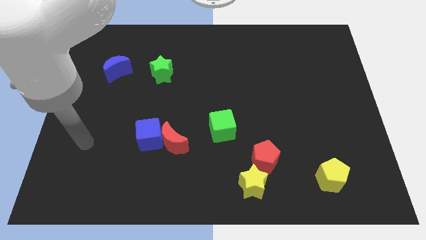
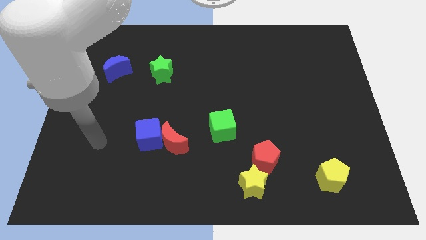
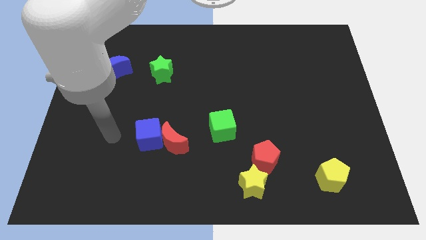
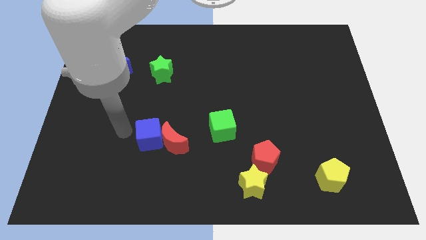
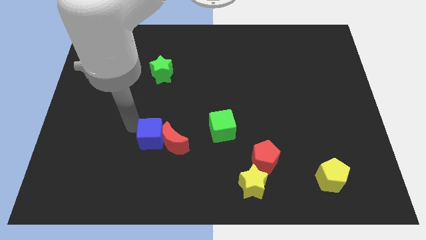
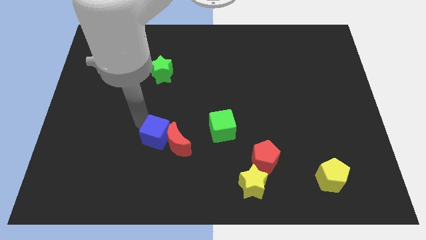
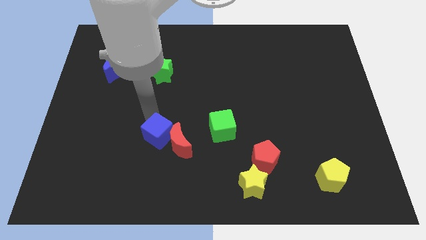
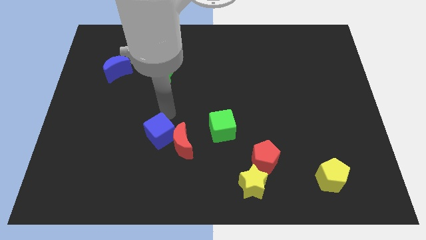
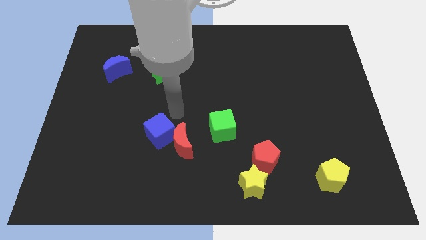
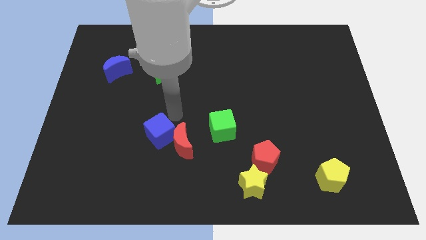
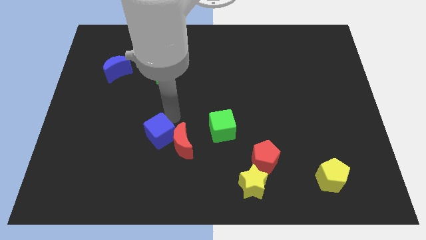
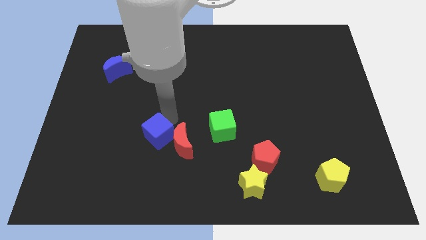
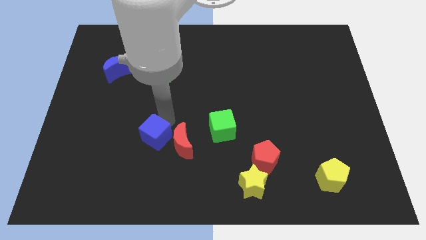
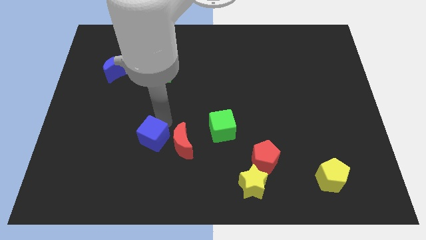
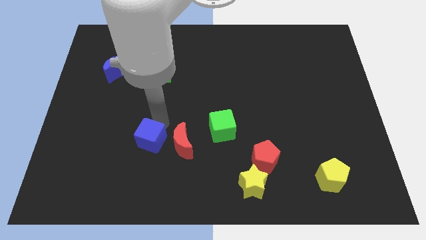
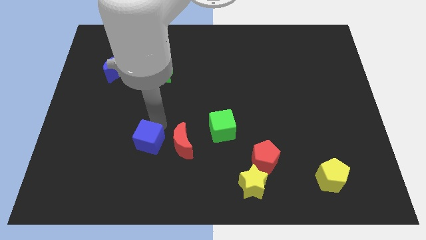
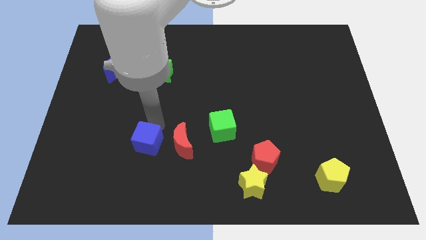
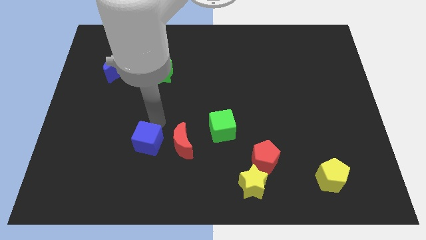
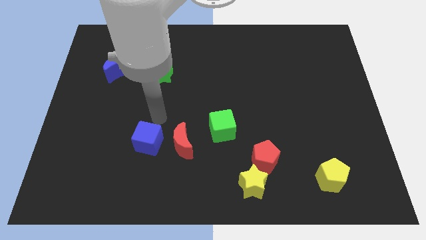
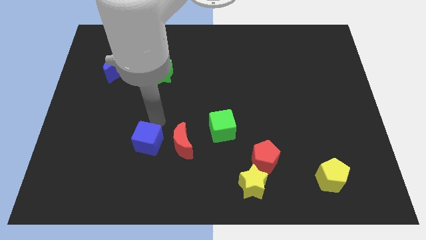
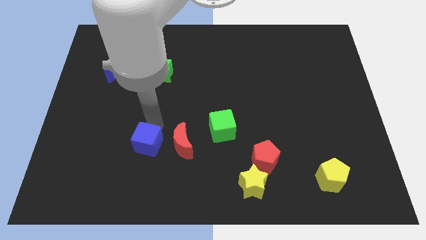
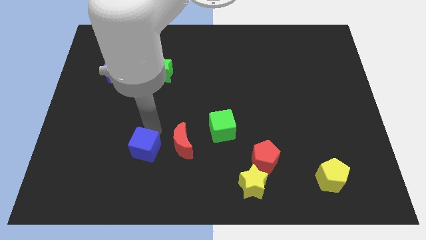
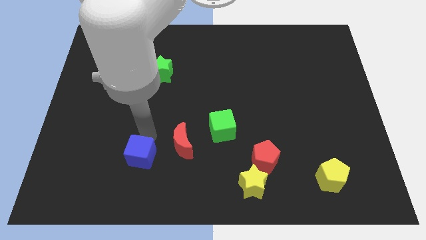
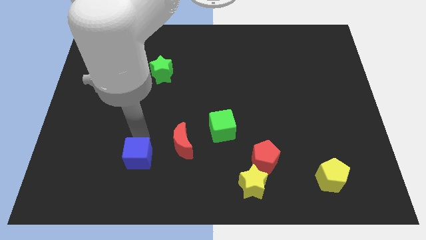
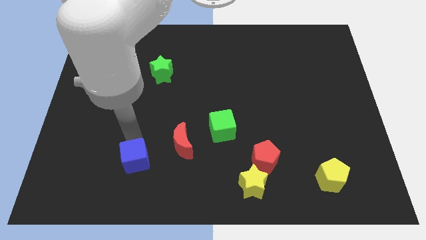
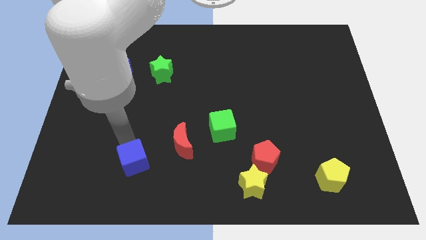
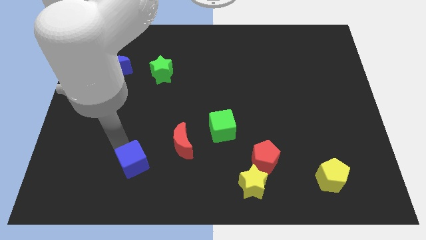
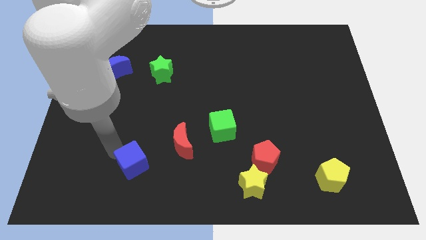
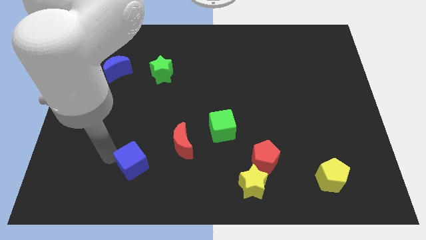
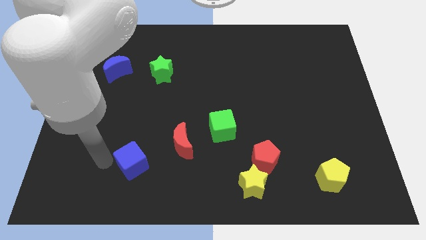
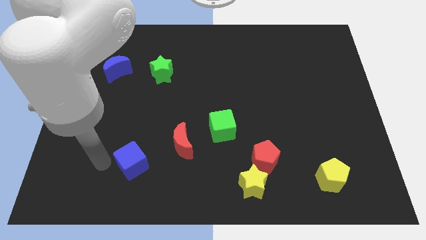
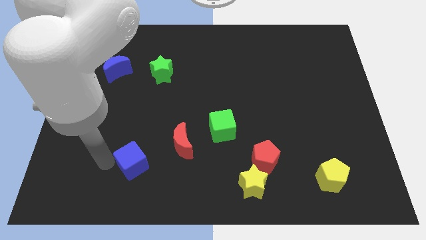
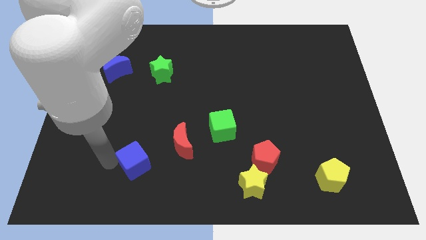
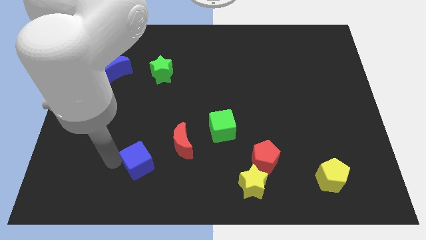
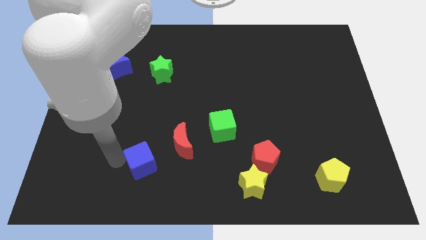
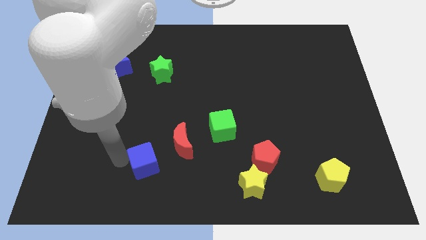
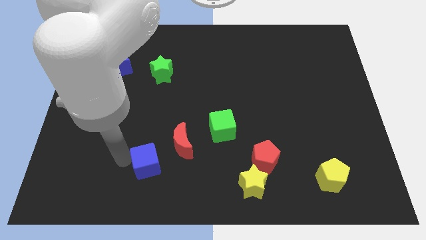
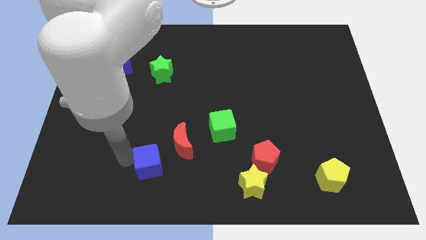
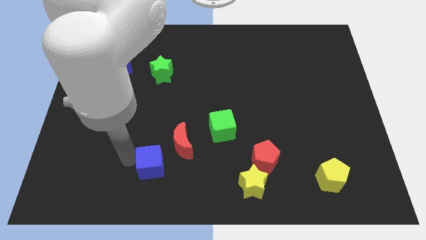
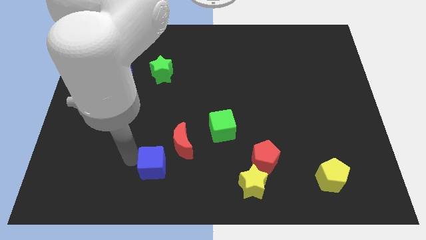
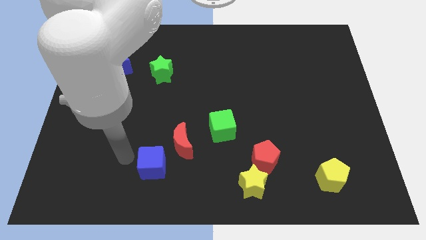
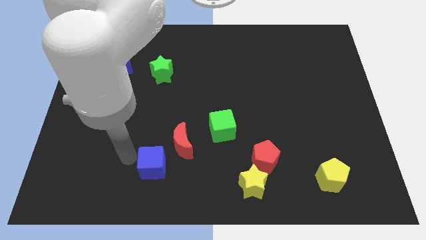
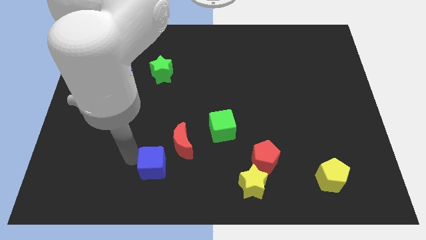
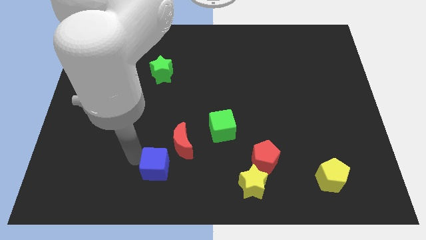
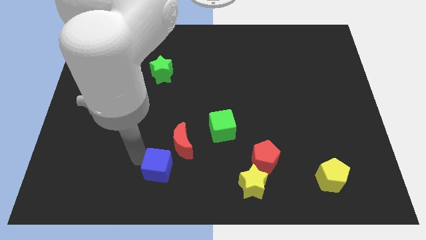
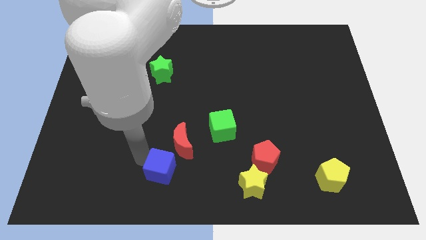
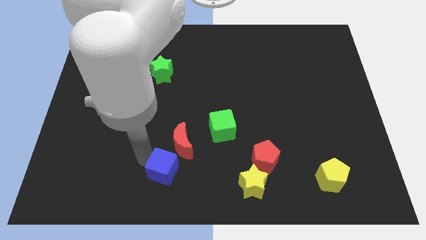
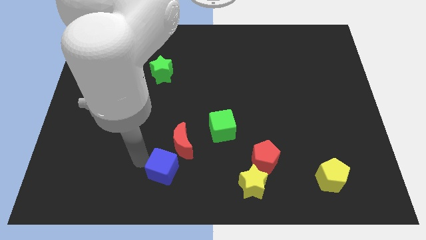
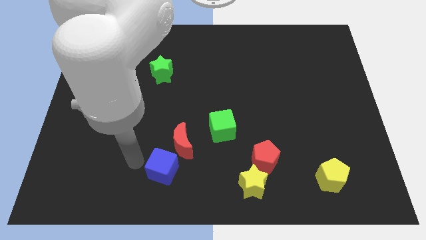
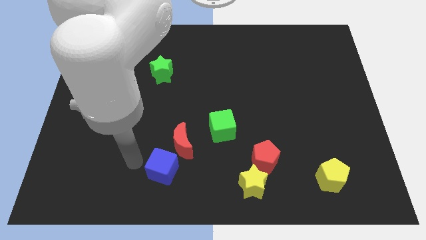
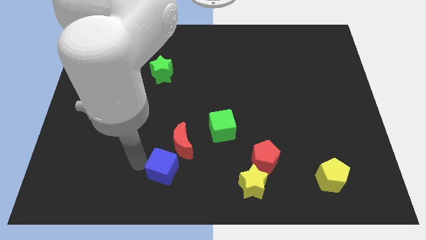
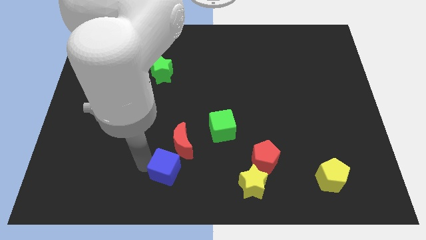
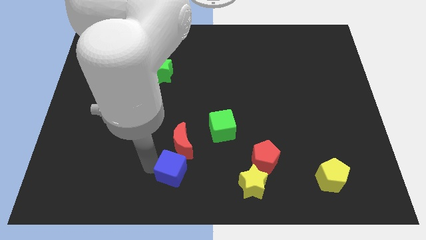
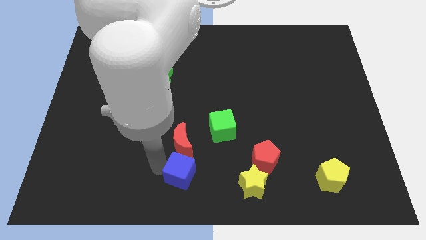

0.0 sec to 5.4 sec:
slide the blue cube to the left side of the yellow star

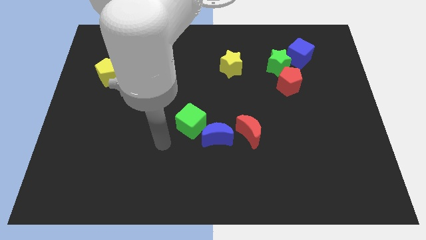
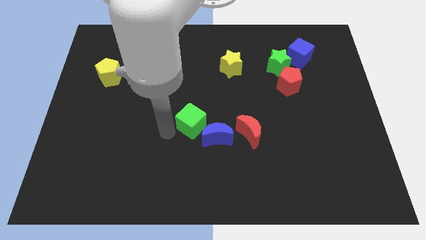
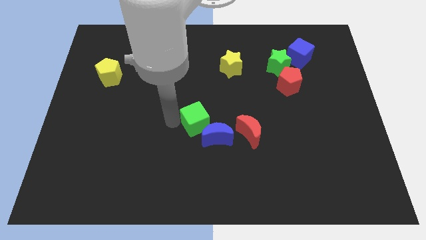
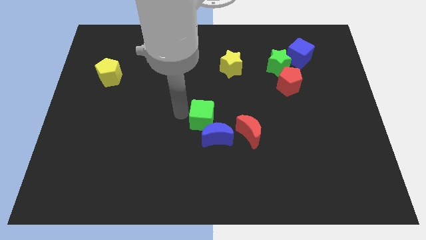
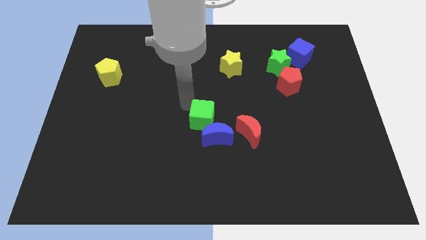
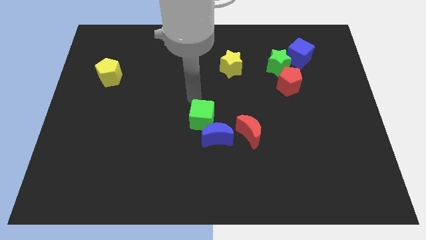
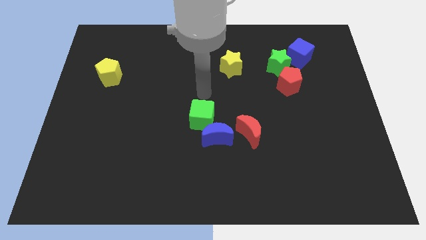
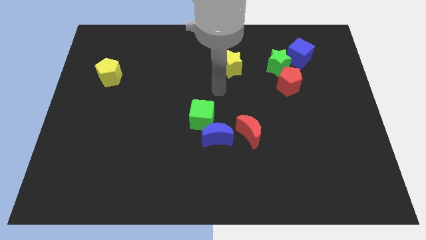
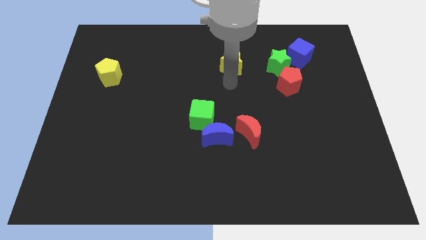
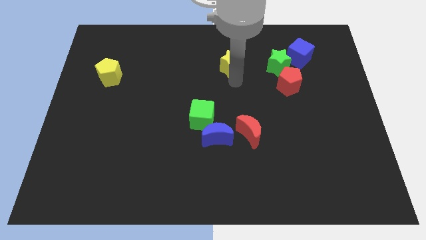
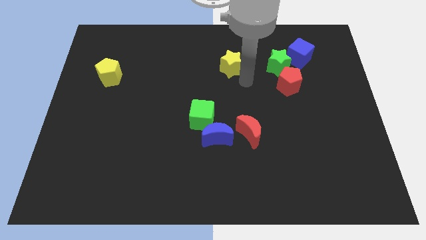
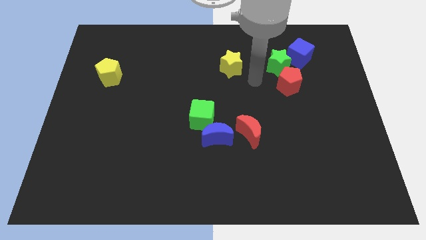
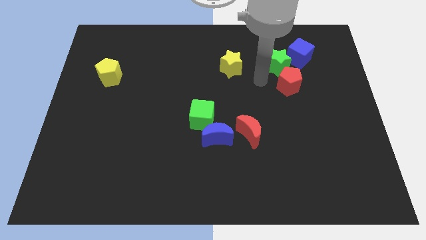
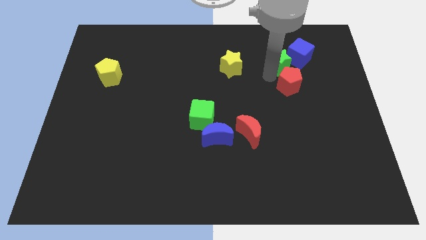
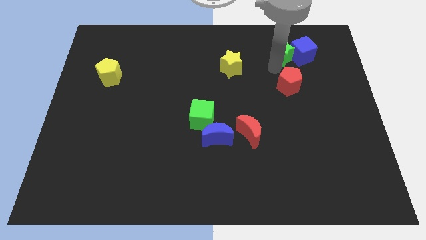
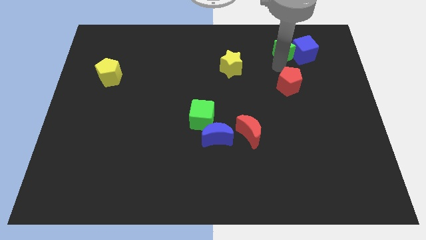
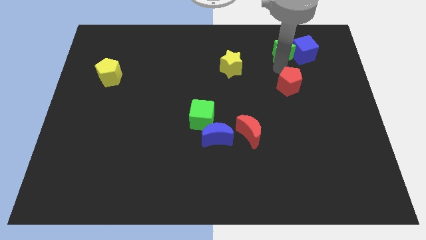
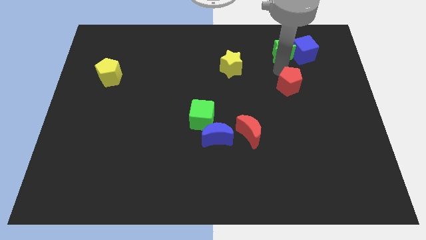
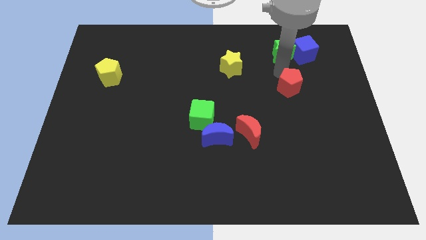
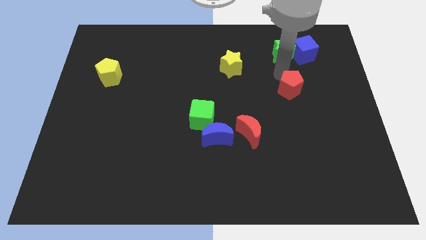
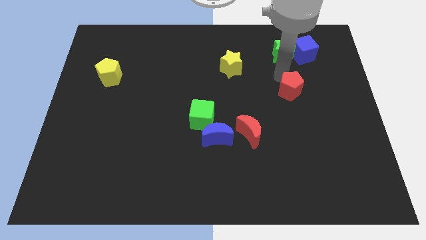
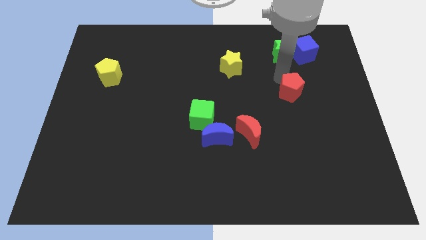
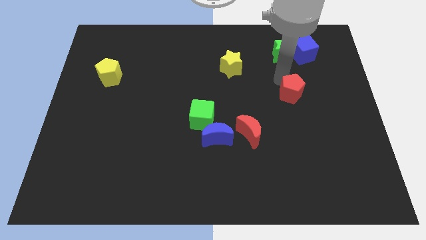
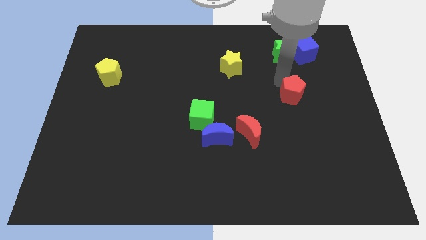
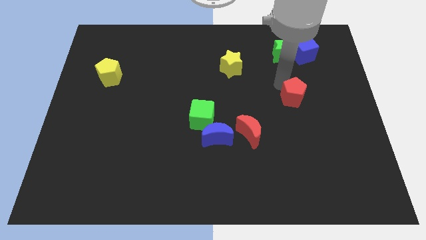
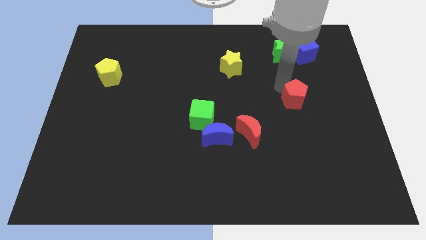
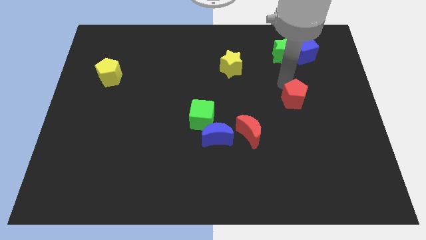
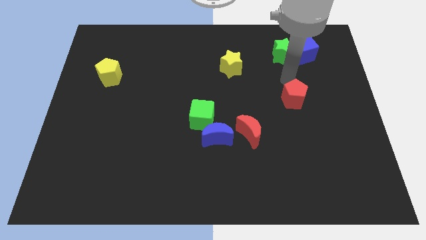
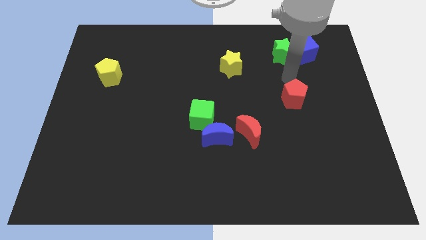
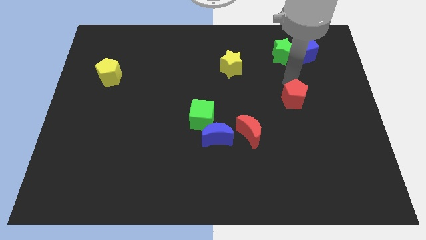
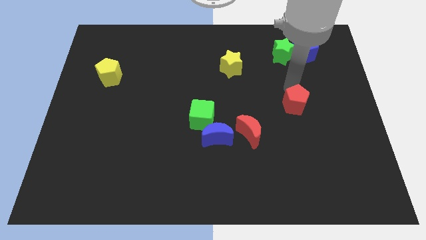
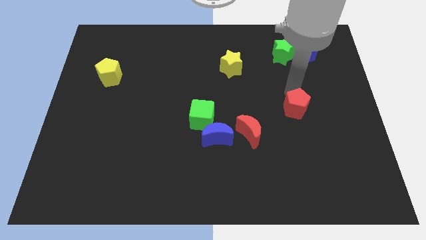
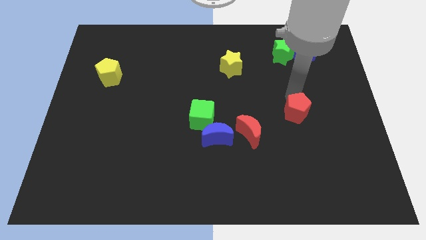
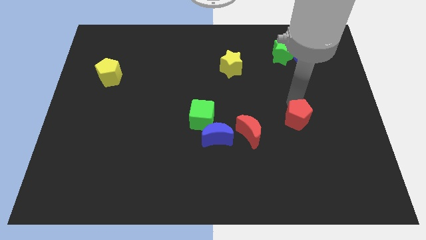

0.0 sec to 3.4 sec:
push the red pentagon right of the red moon
